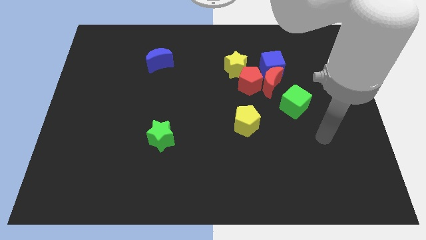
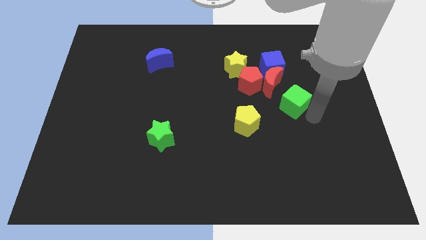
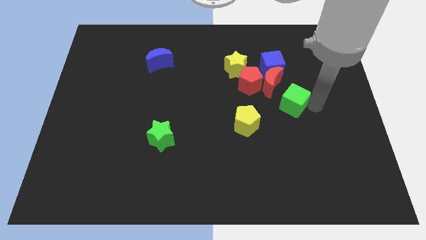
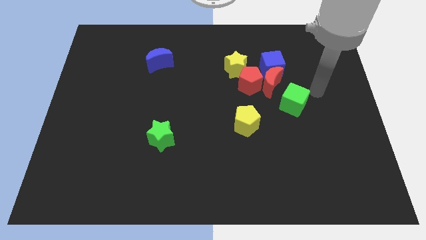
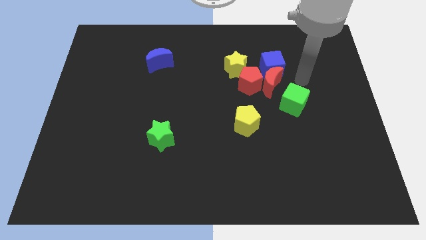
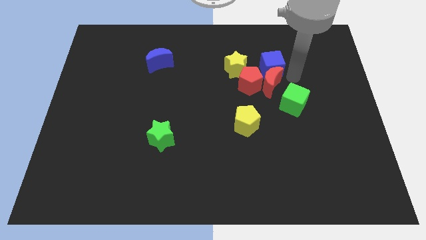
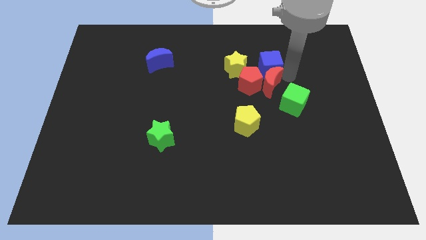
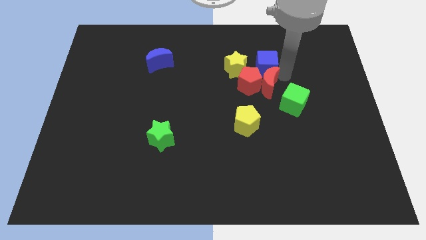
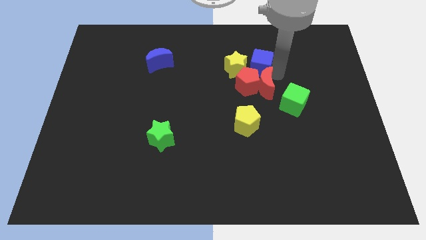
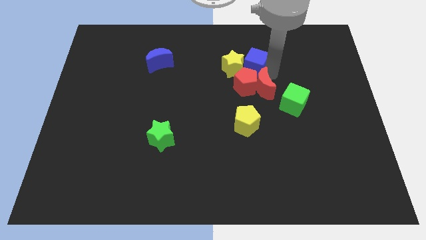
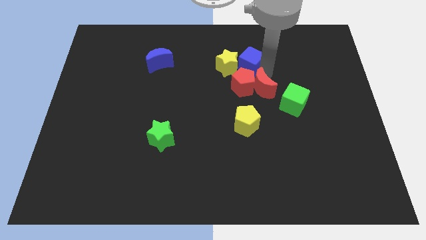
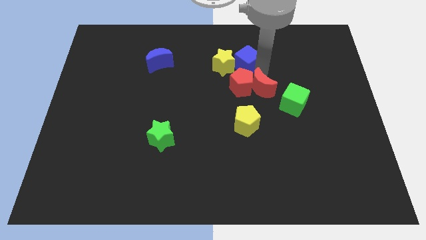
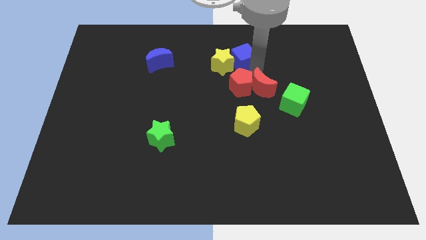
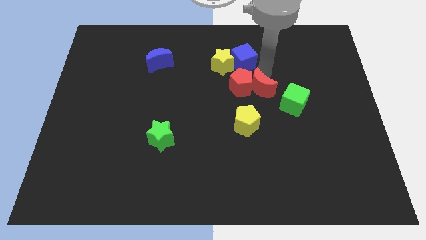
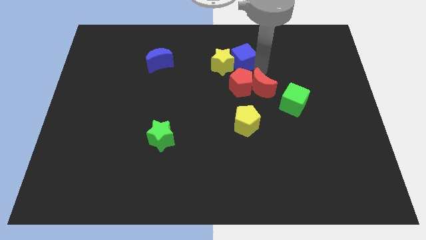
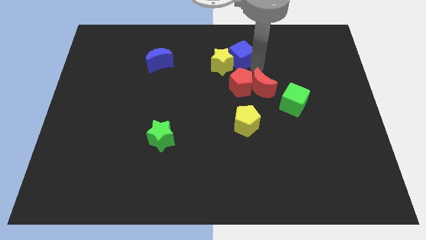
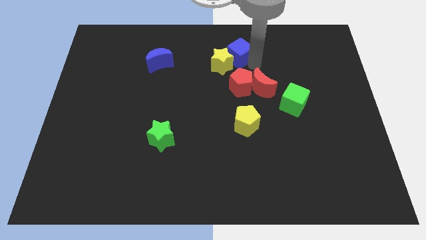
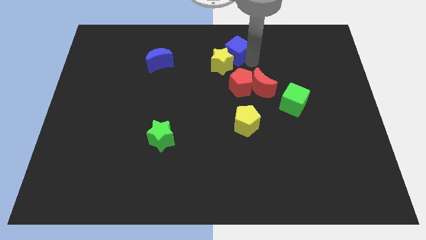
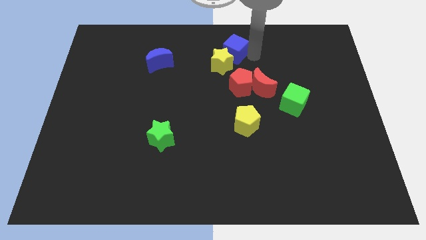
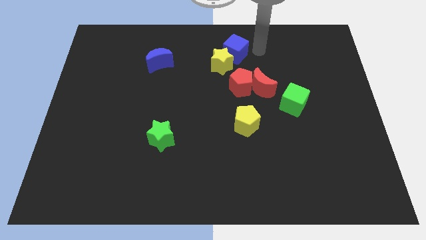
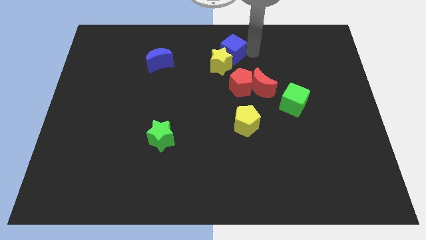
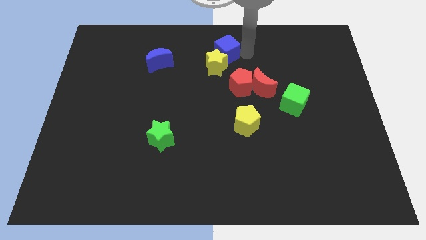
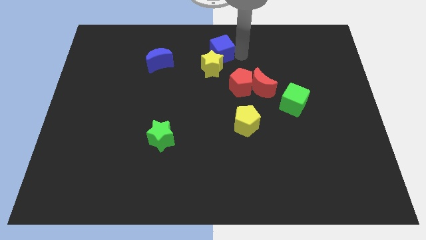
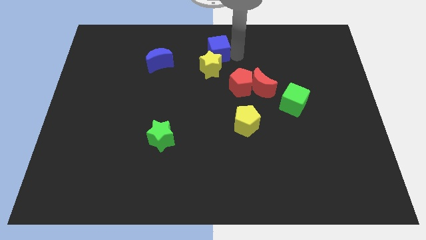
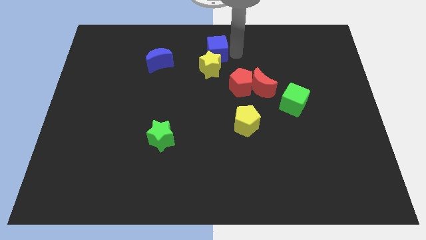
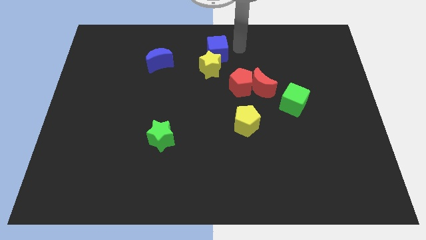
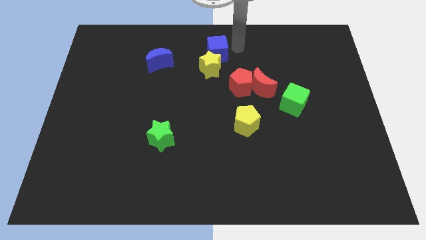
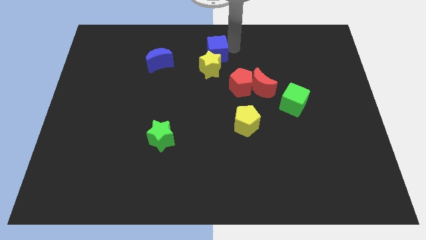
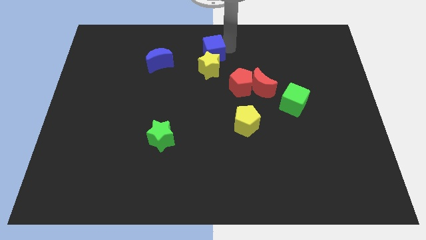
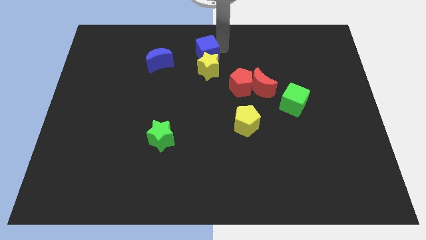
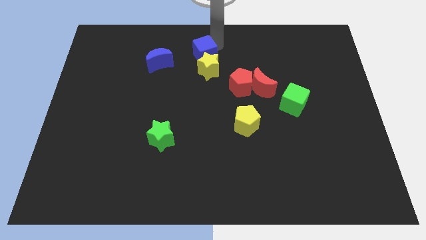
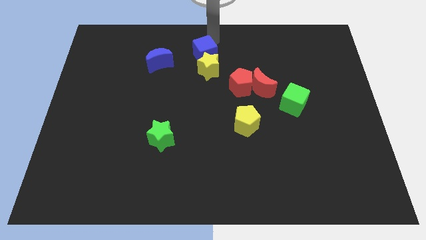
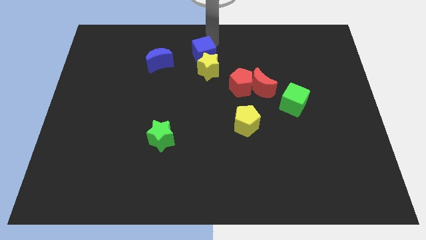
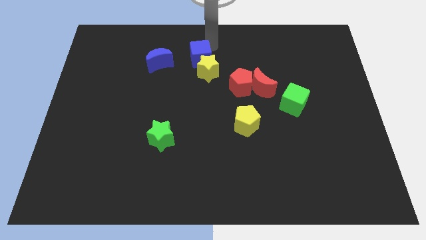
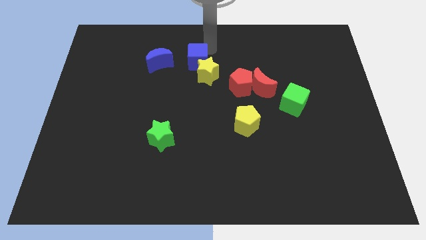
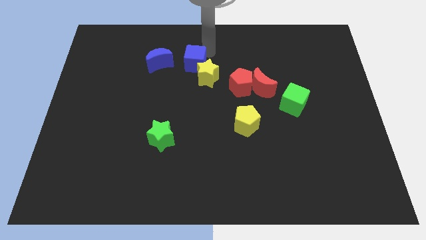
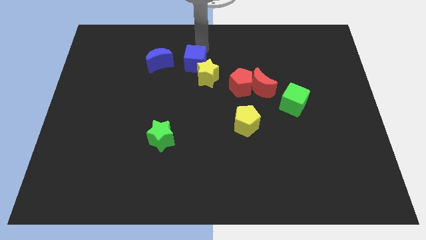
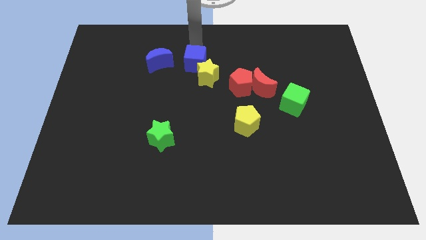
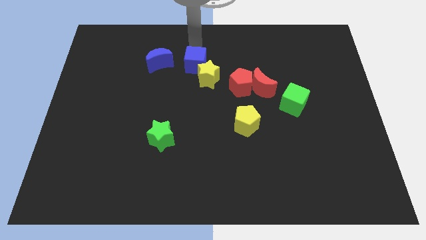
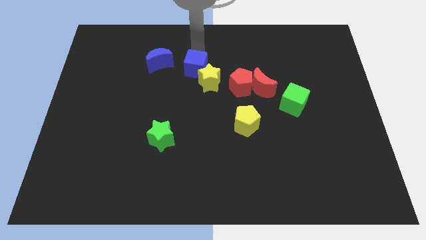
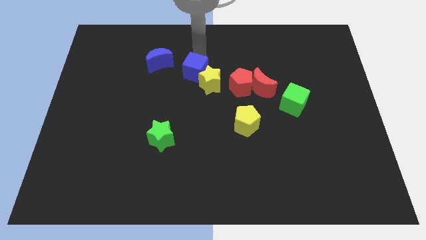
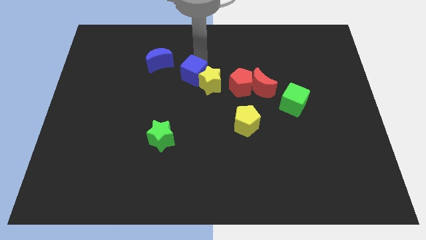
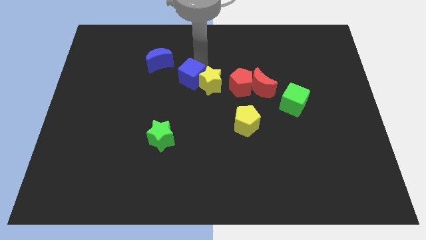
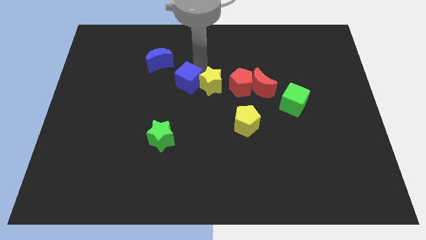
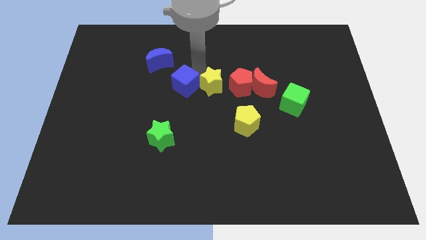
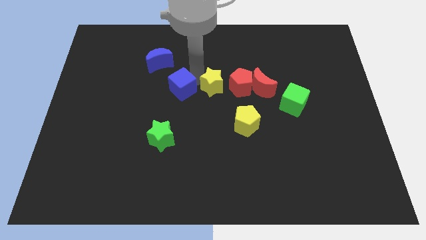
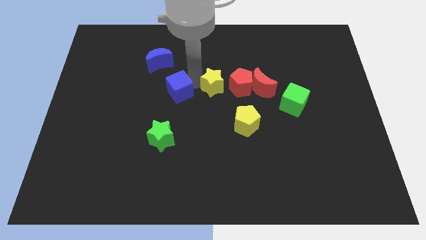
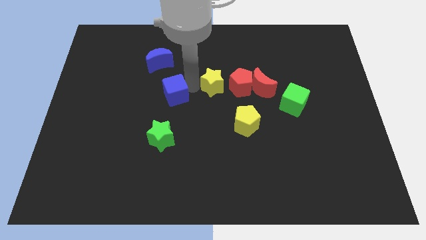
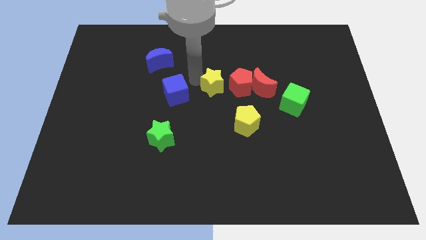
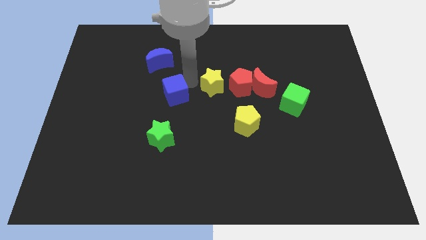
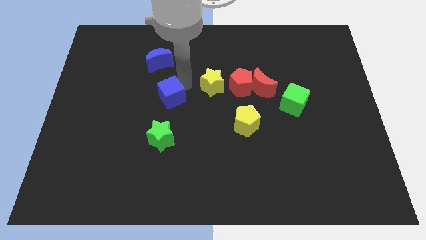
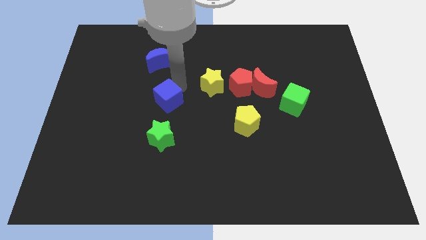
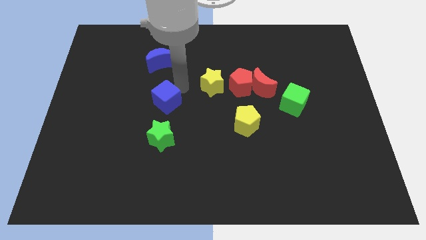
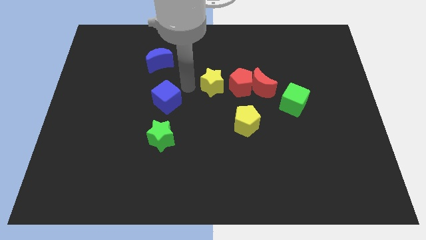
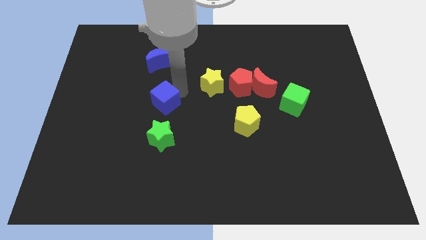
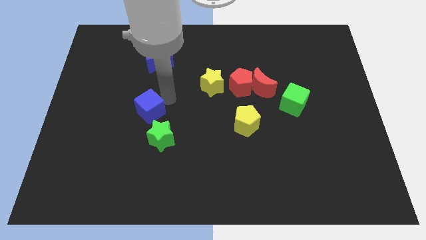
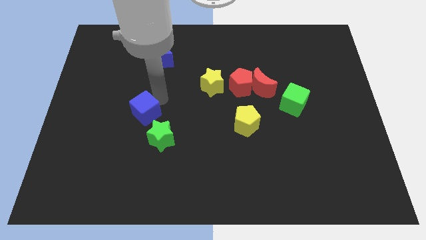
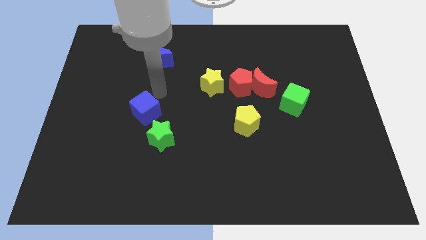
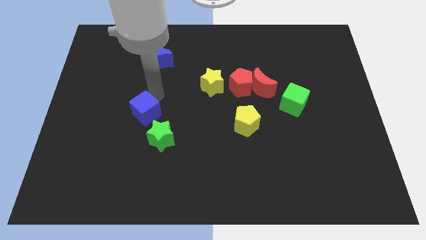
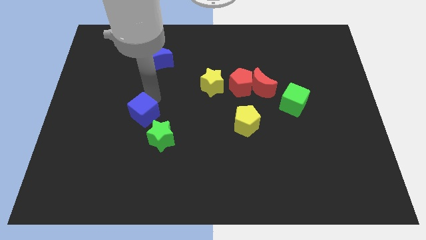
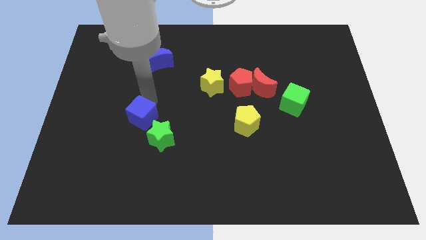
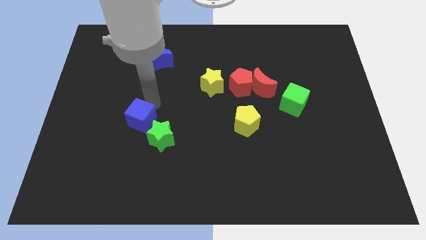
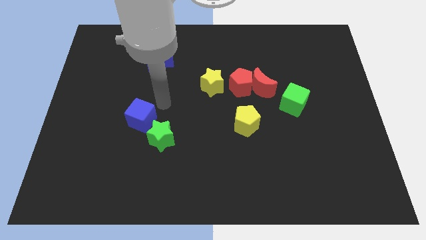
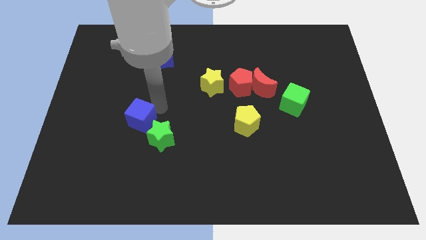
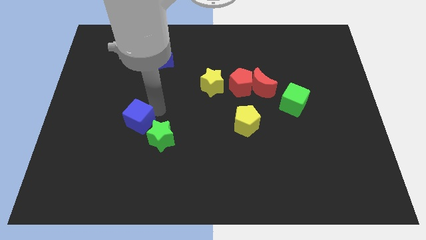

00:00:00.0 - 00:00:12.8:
push the blue cube left of the green star

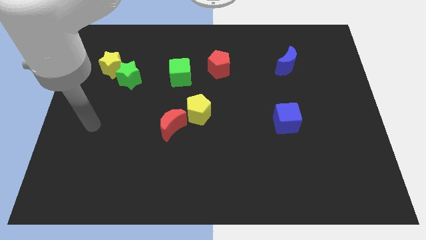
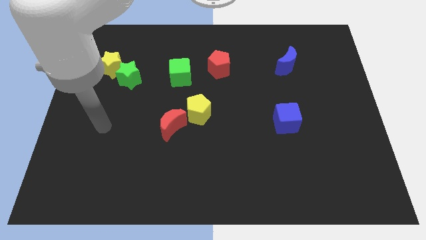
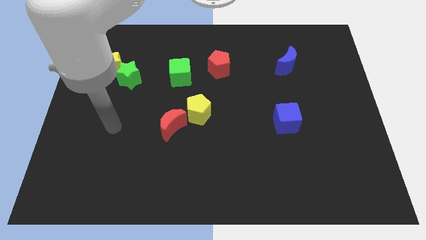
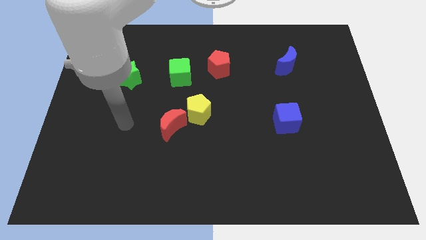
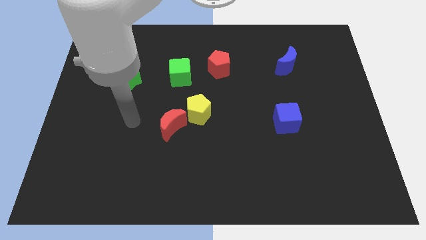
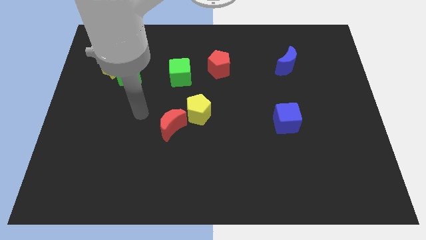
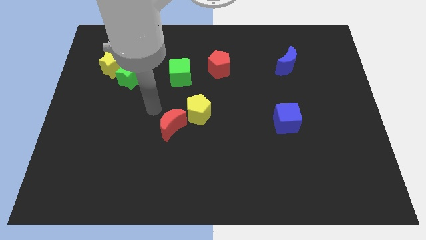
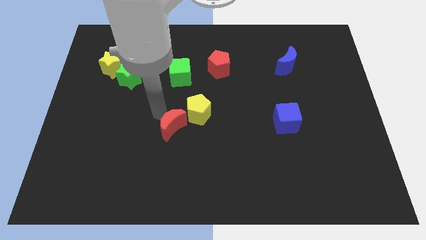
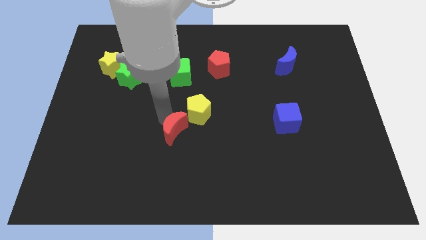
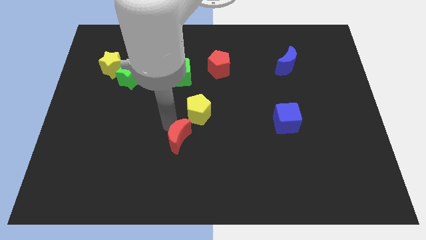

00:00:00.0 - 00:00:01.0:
push the red moon below the yellow pentagon
